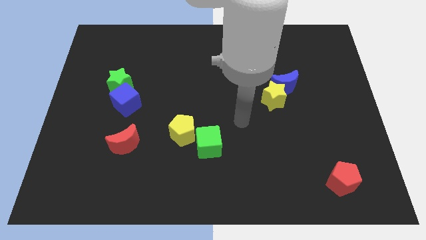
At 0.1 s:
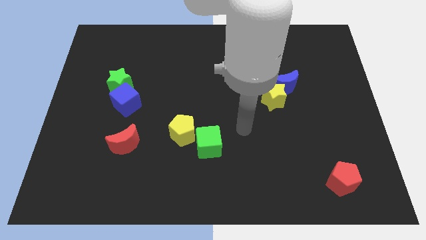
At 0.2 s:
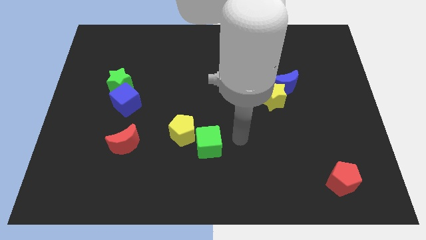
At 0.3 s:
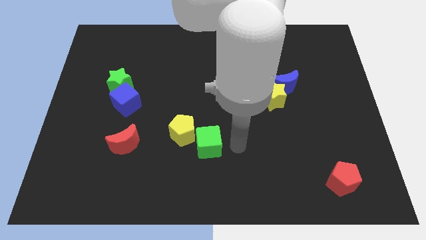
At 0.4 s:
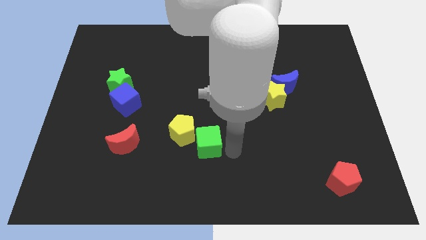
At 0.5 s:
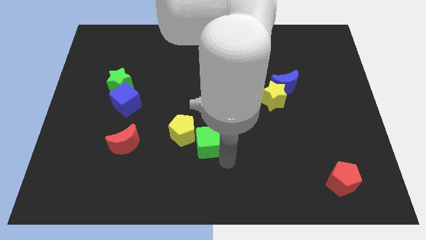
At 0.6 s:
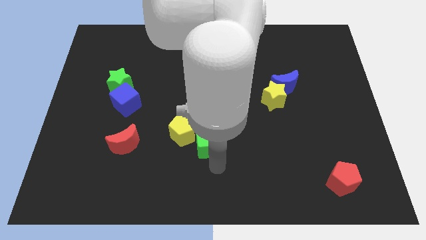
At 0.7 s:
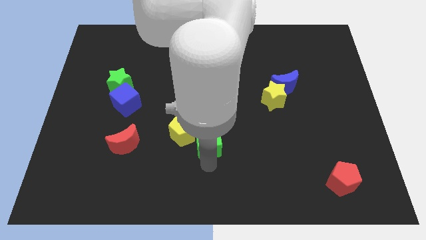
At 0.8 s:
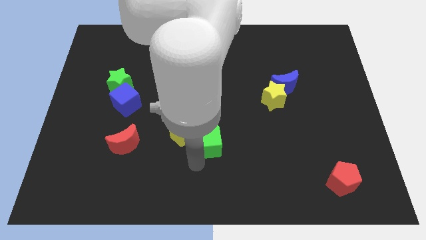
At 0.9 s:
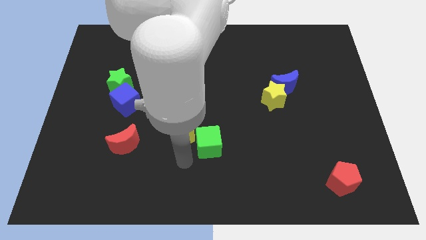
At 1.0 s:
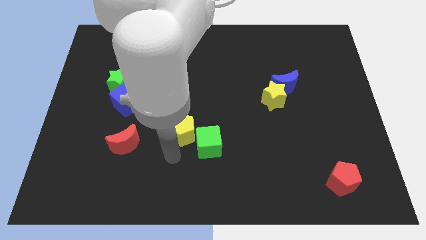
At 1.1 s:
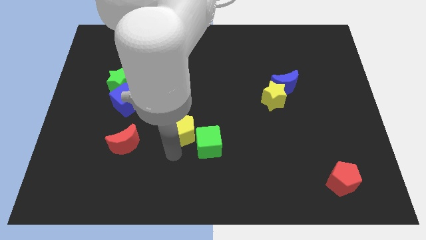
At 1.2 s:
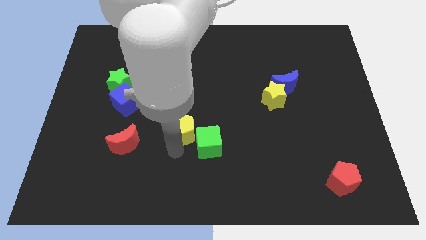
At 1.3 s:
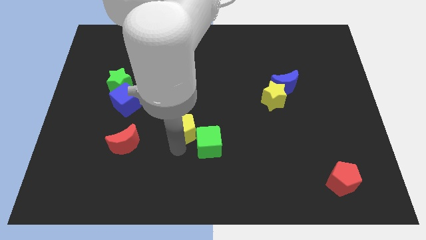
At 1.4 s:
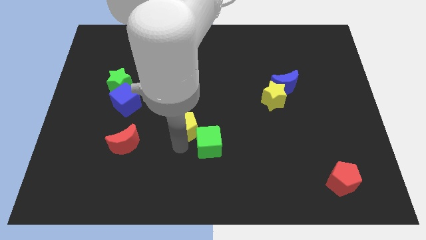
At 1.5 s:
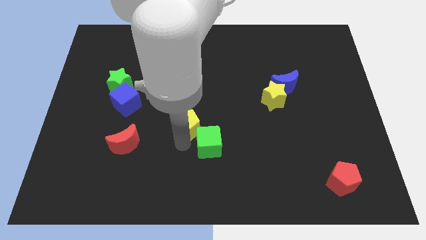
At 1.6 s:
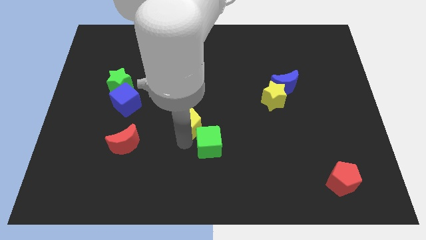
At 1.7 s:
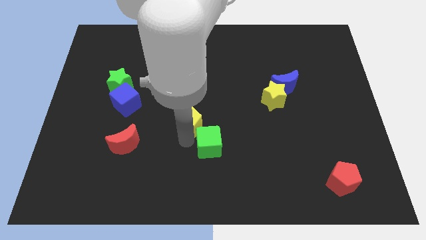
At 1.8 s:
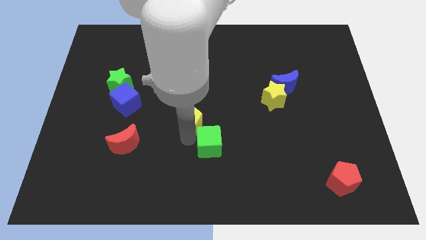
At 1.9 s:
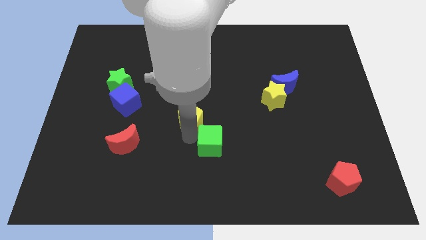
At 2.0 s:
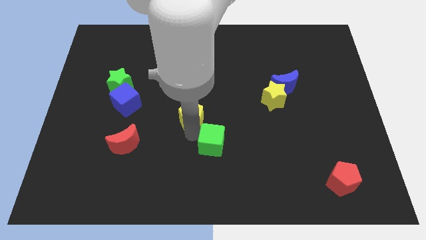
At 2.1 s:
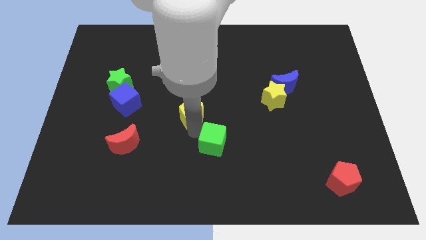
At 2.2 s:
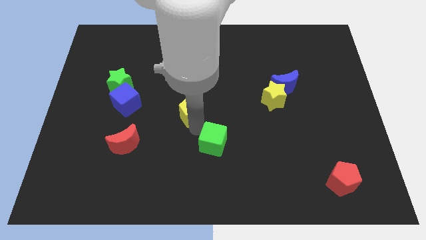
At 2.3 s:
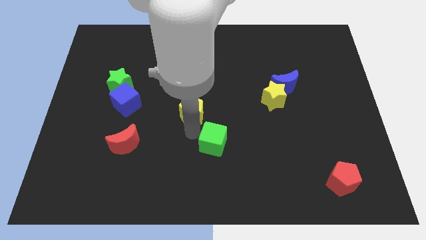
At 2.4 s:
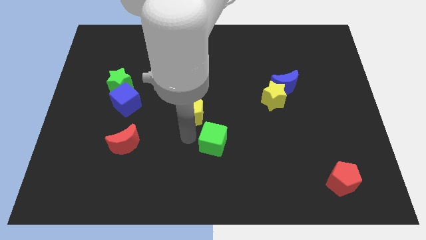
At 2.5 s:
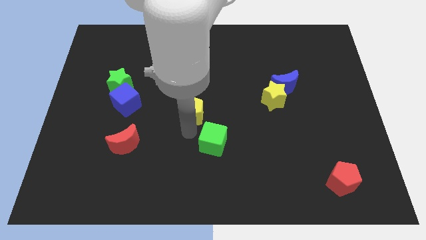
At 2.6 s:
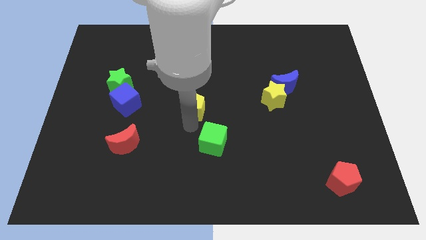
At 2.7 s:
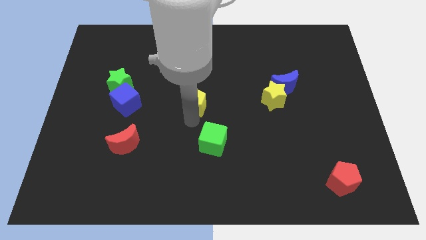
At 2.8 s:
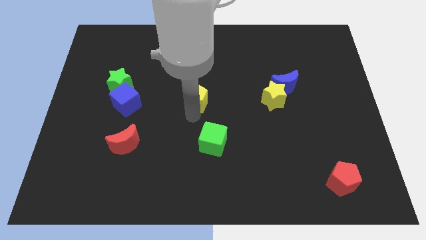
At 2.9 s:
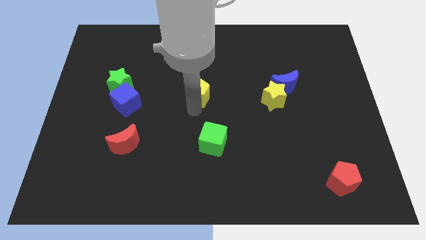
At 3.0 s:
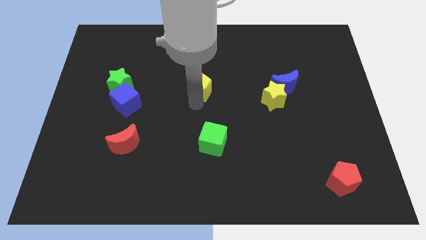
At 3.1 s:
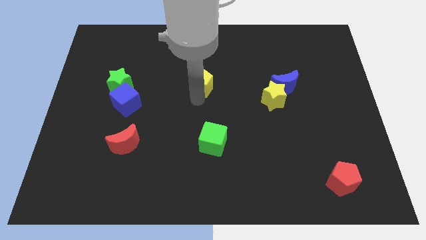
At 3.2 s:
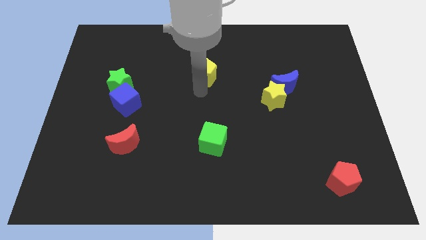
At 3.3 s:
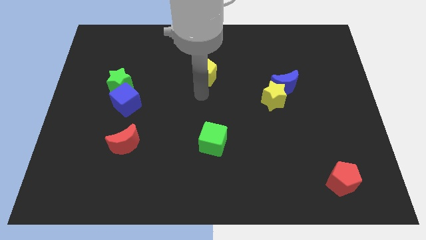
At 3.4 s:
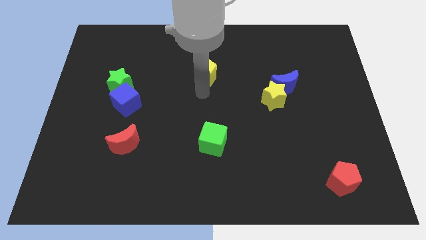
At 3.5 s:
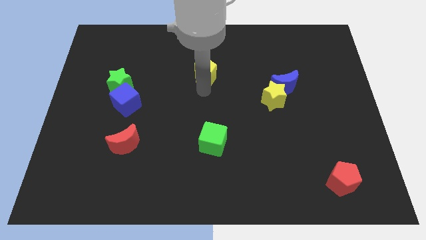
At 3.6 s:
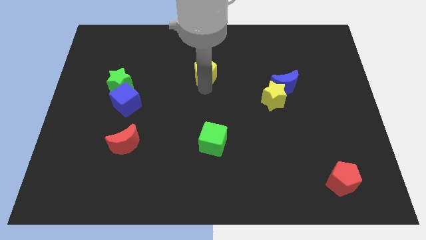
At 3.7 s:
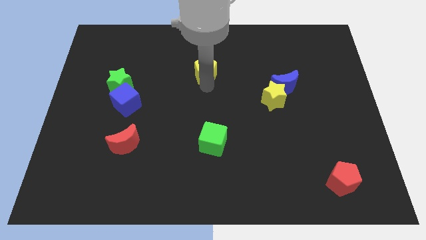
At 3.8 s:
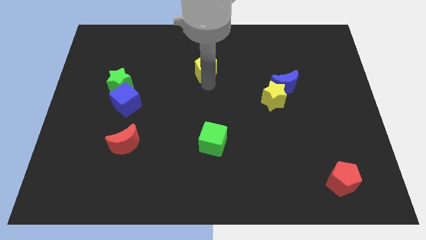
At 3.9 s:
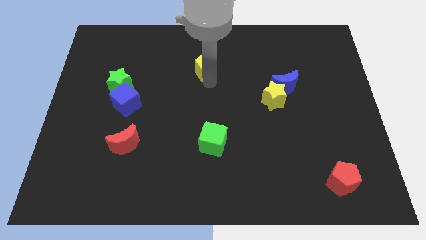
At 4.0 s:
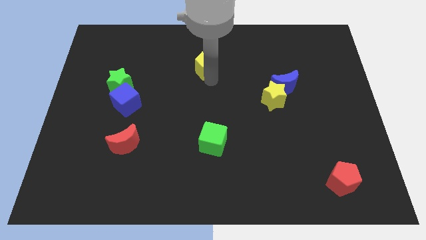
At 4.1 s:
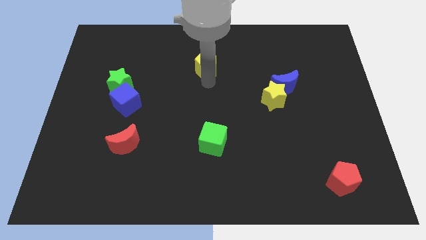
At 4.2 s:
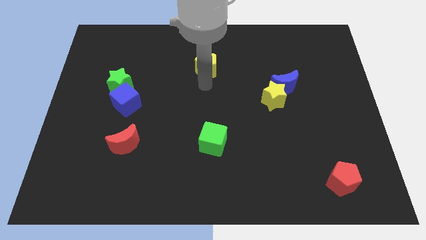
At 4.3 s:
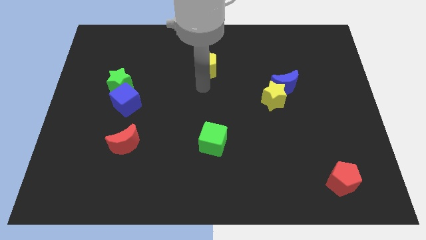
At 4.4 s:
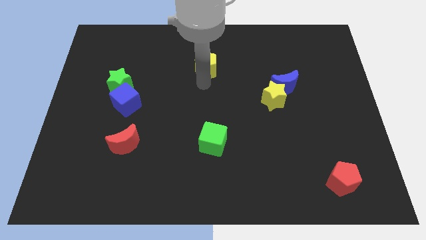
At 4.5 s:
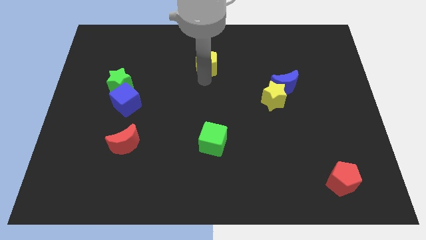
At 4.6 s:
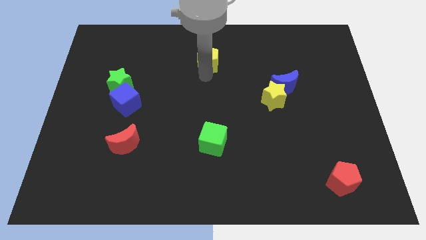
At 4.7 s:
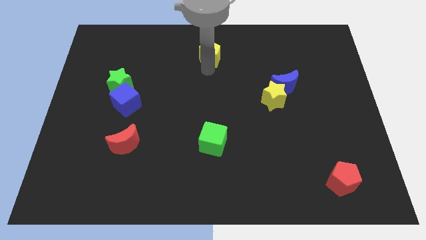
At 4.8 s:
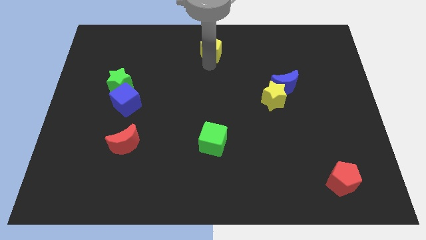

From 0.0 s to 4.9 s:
move the yellow pentagon to the top side

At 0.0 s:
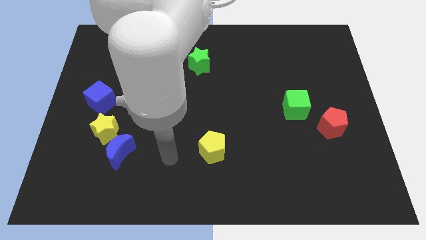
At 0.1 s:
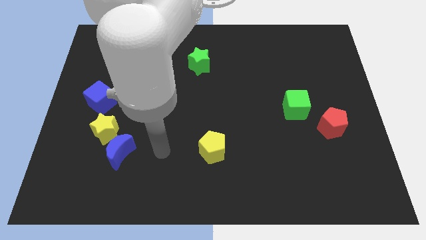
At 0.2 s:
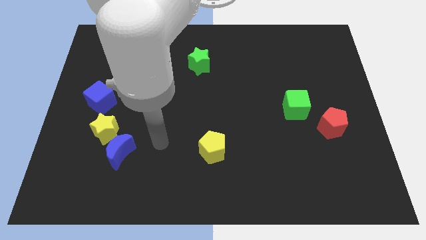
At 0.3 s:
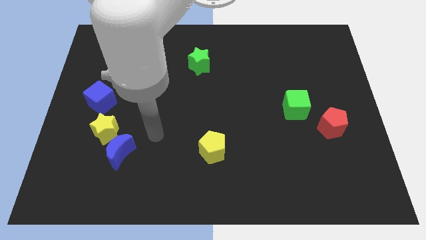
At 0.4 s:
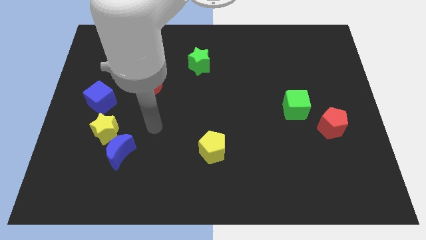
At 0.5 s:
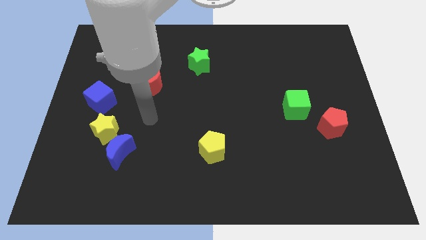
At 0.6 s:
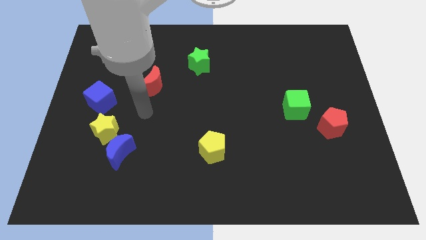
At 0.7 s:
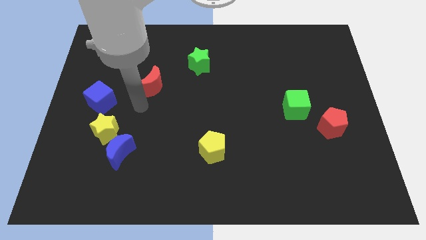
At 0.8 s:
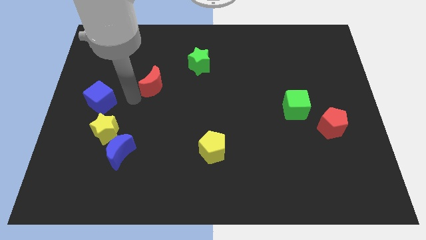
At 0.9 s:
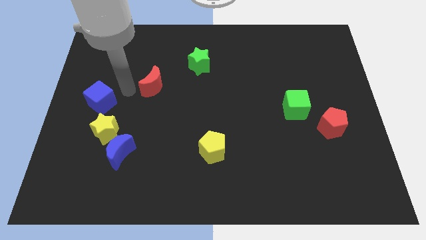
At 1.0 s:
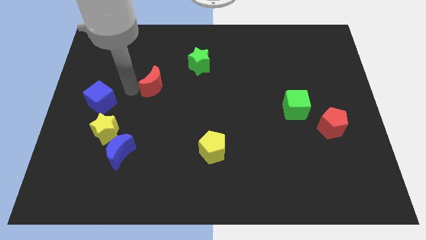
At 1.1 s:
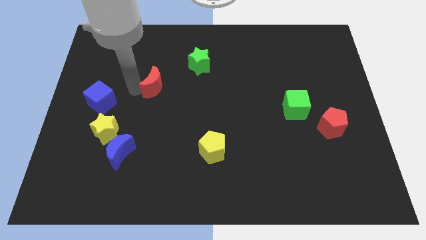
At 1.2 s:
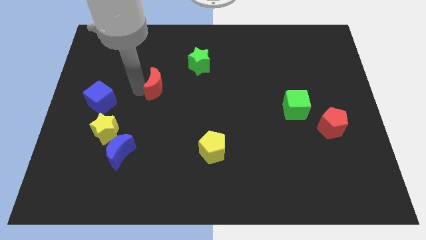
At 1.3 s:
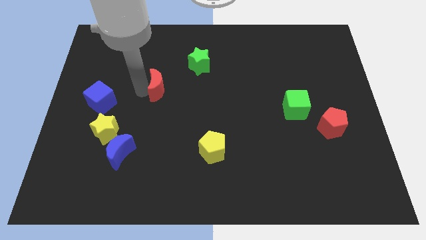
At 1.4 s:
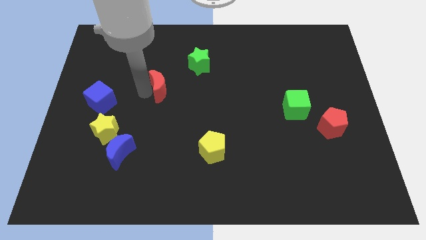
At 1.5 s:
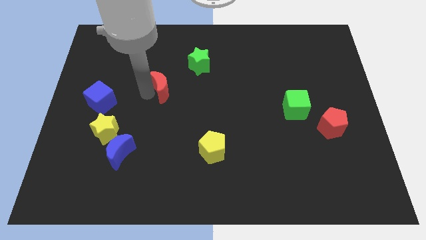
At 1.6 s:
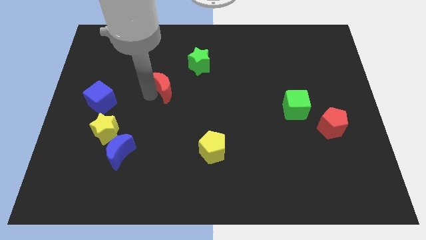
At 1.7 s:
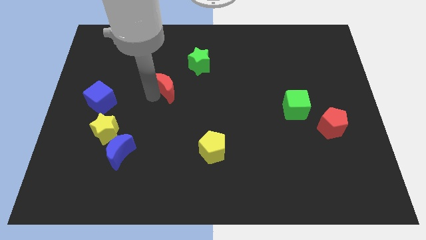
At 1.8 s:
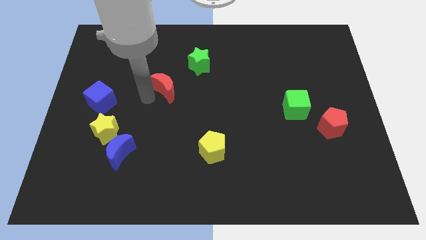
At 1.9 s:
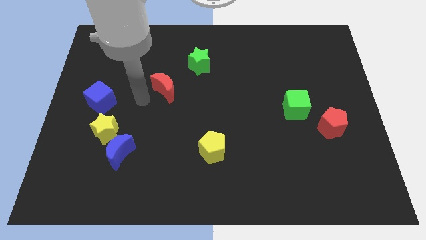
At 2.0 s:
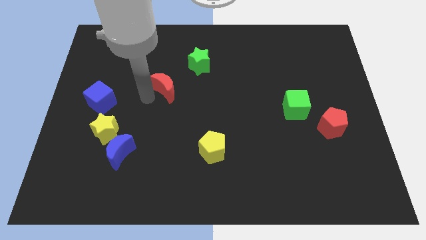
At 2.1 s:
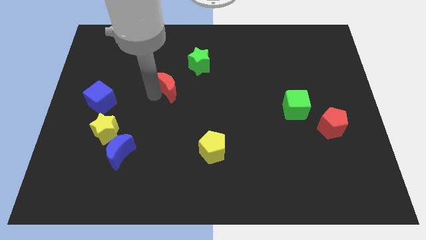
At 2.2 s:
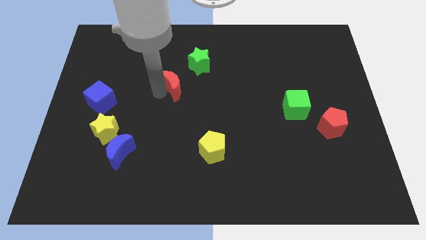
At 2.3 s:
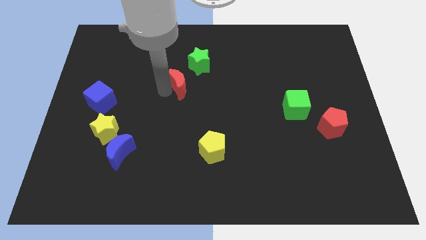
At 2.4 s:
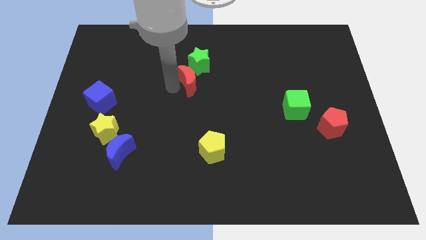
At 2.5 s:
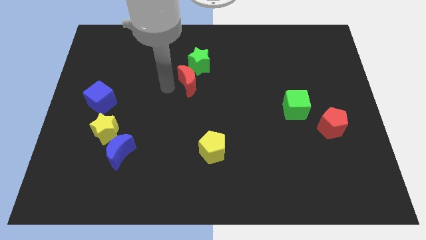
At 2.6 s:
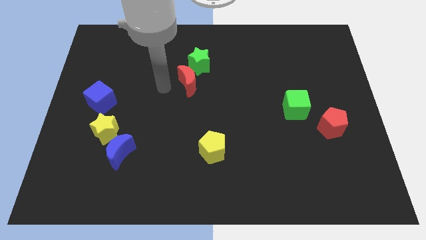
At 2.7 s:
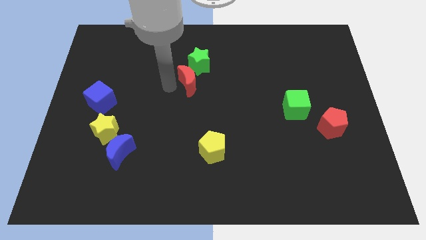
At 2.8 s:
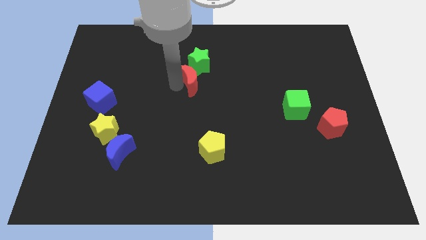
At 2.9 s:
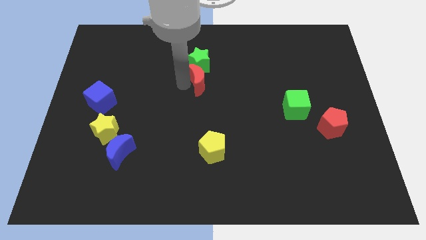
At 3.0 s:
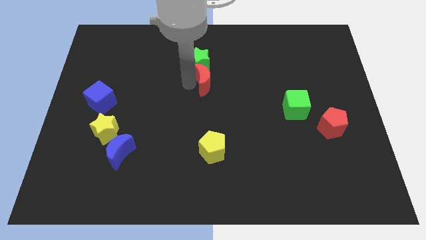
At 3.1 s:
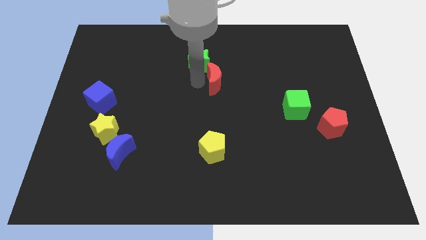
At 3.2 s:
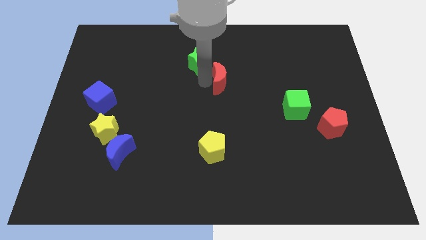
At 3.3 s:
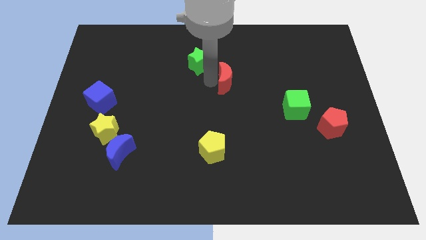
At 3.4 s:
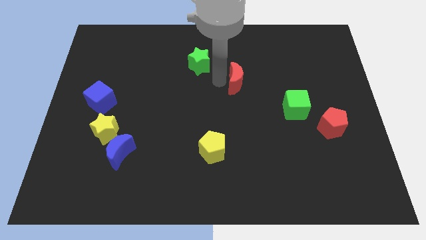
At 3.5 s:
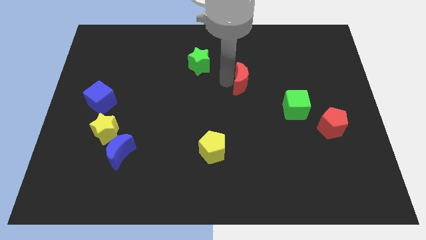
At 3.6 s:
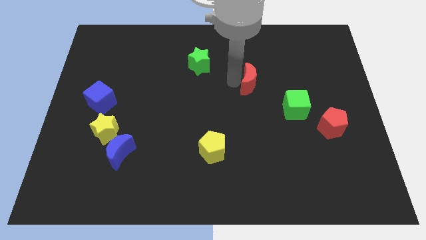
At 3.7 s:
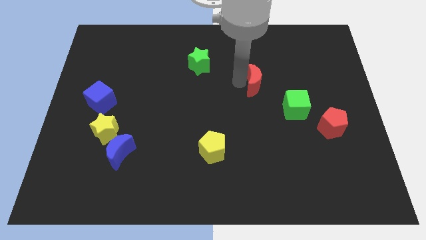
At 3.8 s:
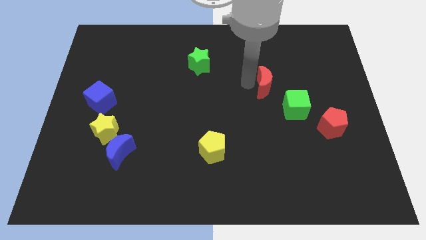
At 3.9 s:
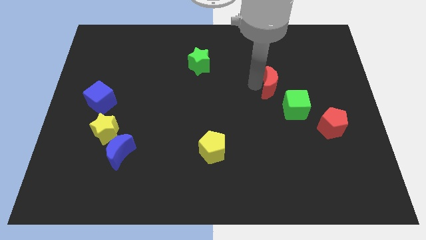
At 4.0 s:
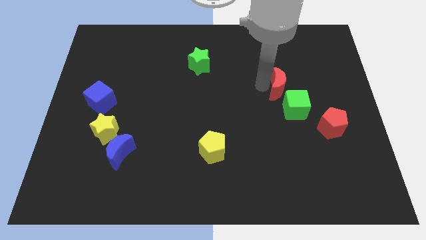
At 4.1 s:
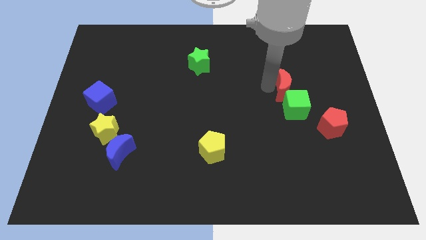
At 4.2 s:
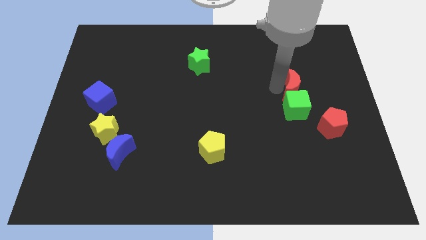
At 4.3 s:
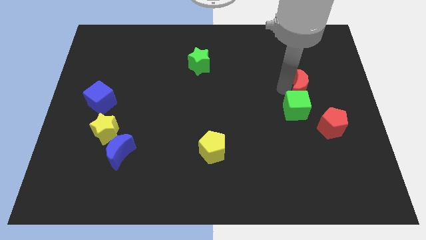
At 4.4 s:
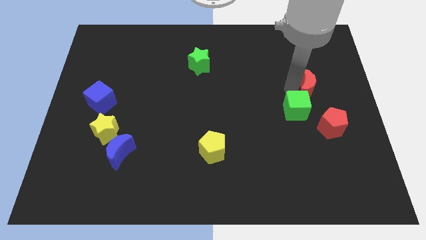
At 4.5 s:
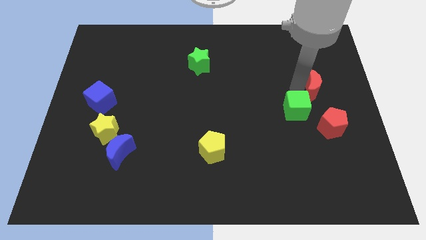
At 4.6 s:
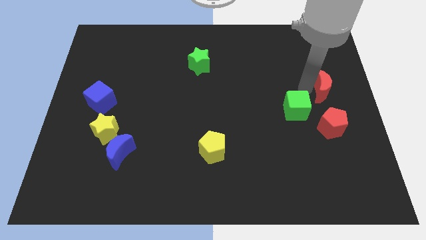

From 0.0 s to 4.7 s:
slide the red moon to the center right
